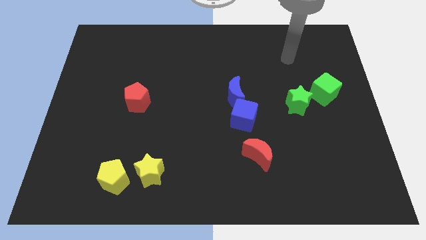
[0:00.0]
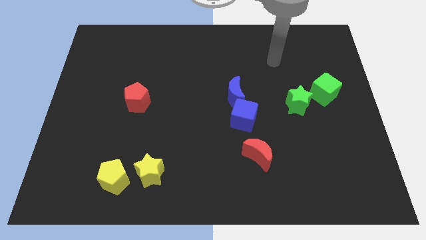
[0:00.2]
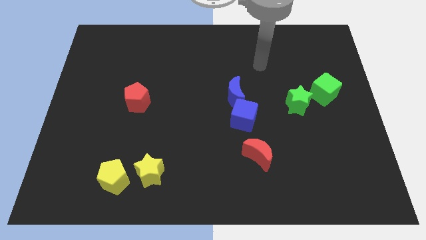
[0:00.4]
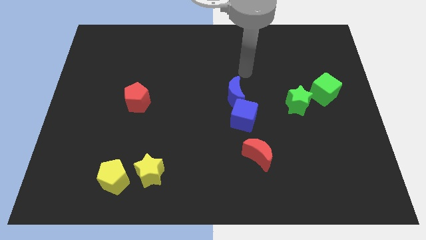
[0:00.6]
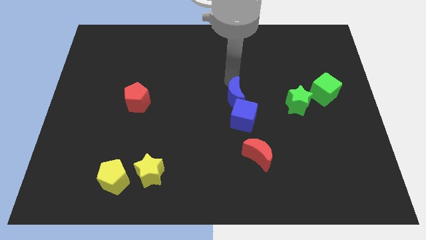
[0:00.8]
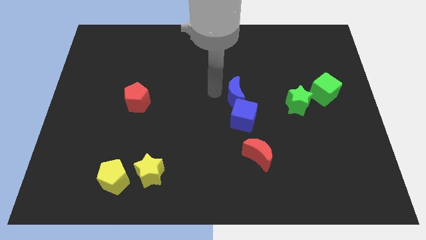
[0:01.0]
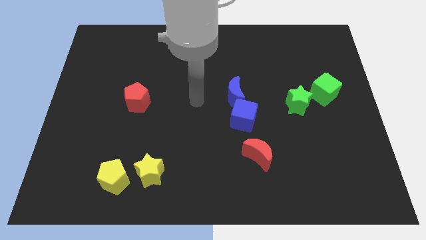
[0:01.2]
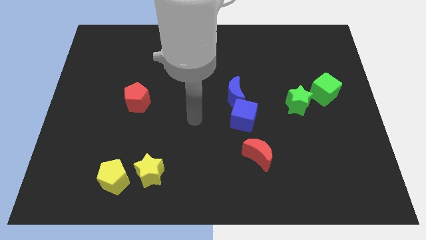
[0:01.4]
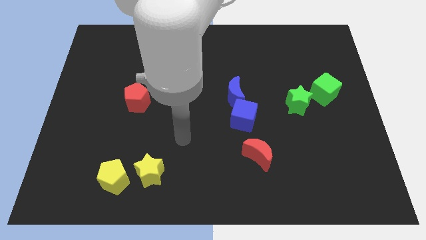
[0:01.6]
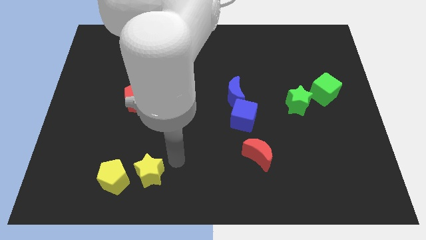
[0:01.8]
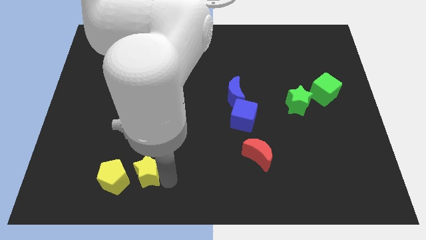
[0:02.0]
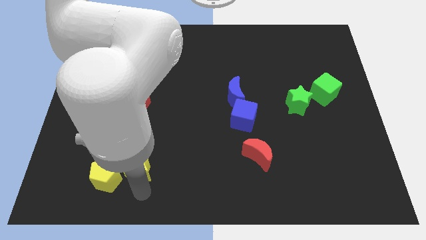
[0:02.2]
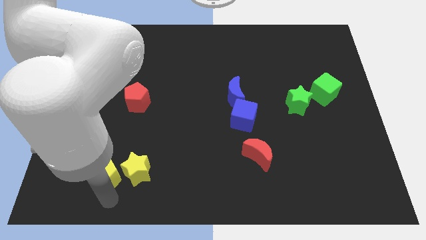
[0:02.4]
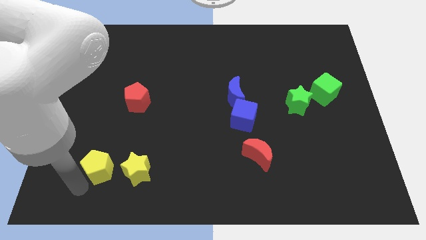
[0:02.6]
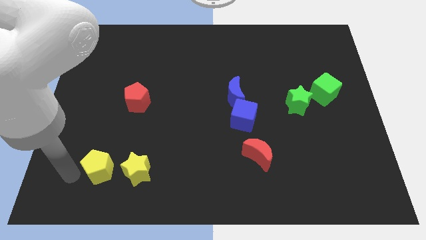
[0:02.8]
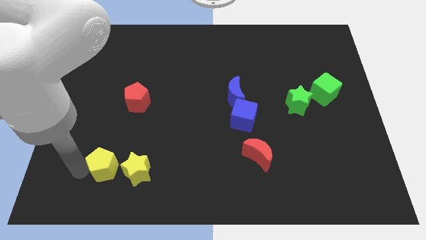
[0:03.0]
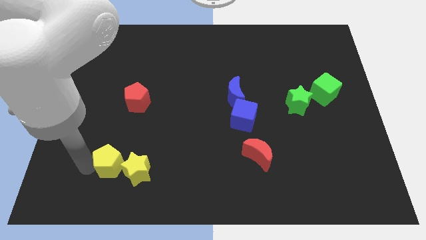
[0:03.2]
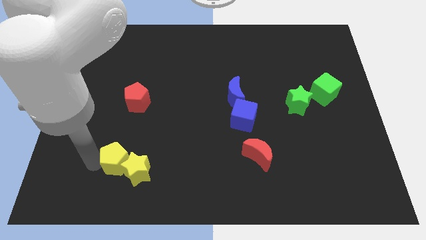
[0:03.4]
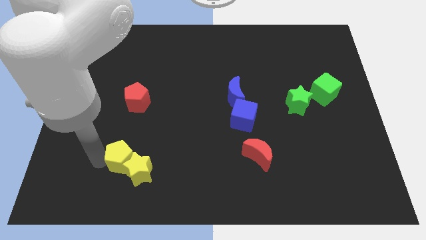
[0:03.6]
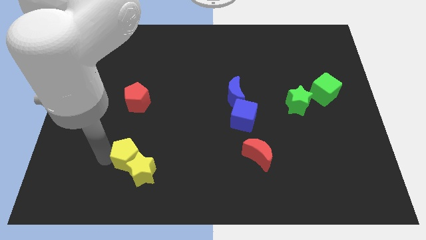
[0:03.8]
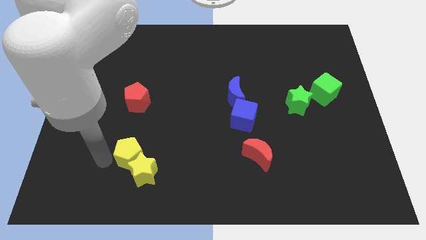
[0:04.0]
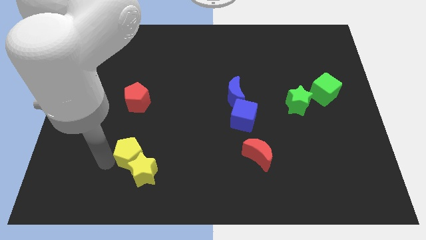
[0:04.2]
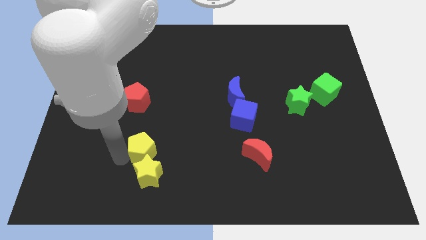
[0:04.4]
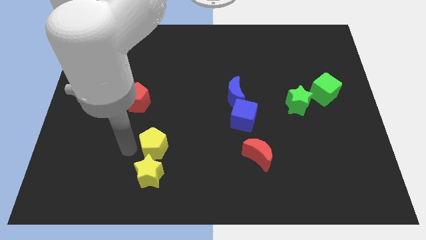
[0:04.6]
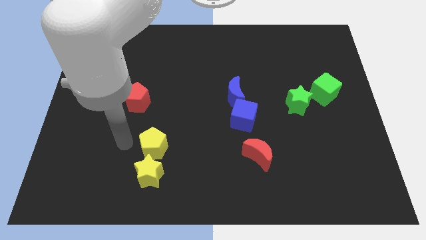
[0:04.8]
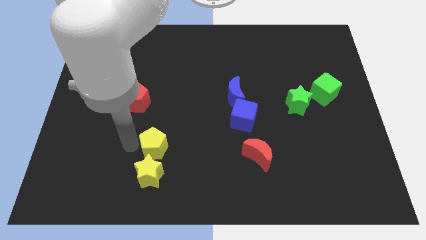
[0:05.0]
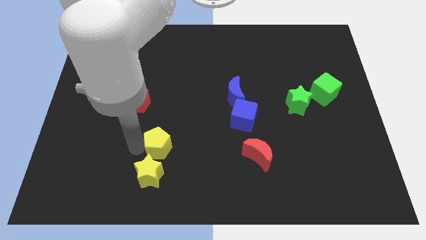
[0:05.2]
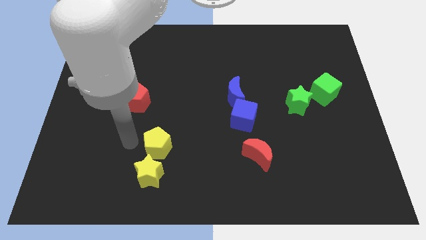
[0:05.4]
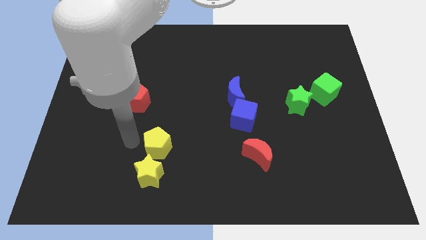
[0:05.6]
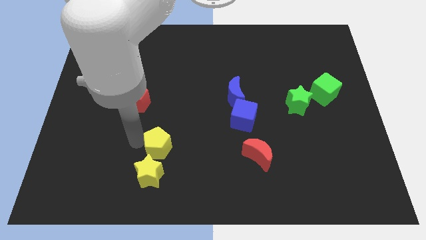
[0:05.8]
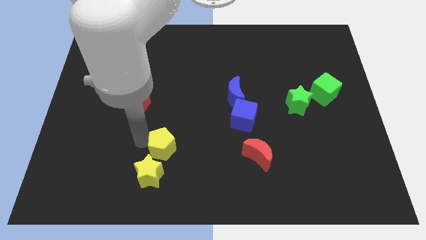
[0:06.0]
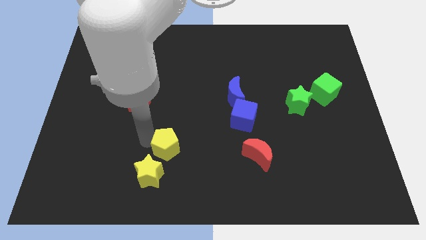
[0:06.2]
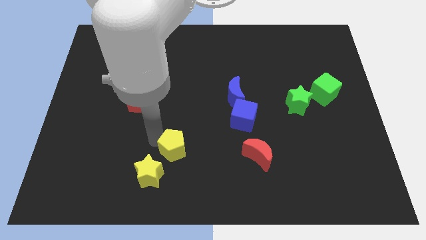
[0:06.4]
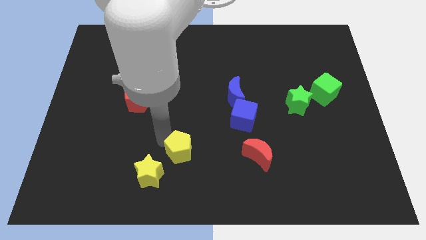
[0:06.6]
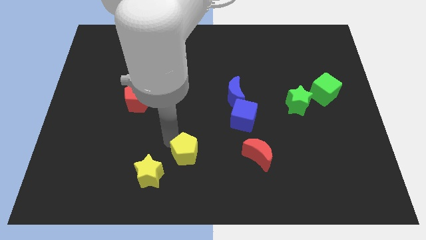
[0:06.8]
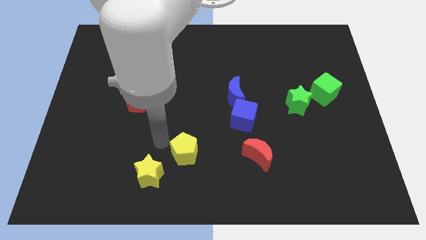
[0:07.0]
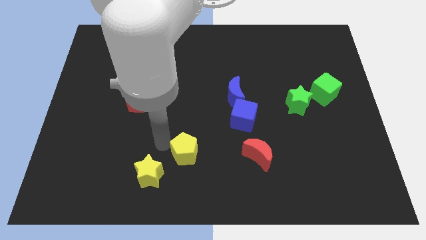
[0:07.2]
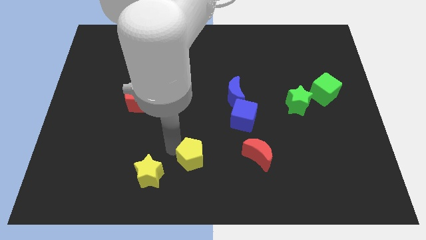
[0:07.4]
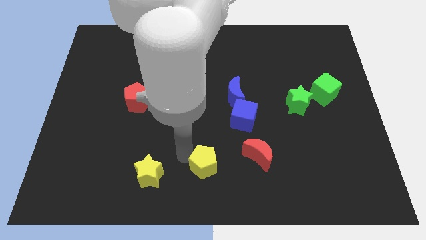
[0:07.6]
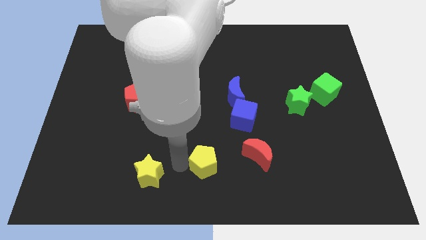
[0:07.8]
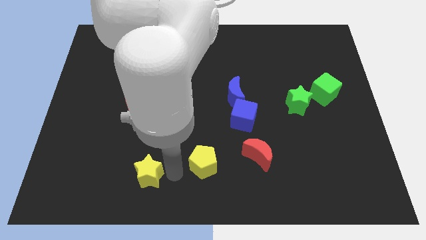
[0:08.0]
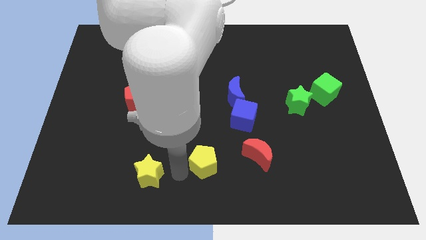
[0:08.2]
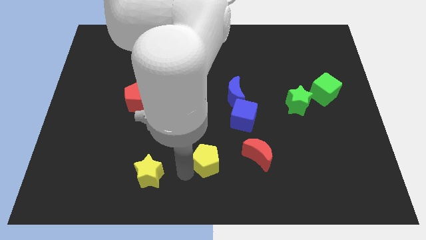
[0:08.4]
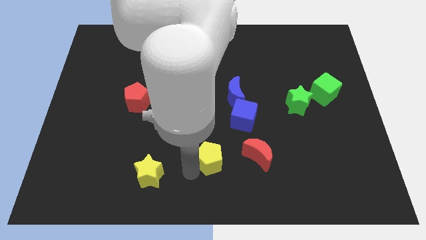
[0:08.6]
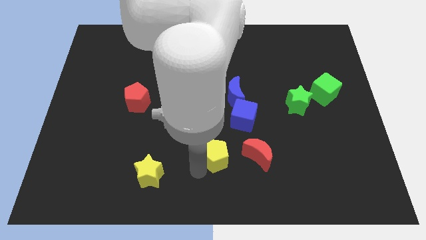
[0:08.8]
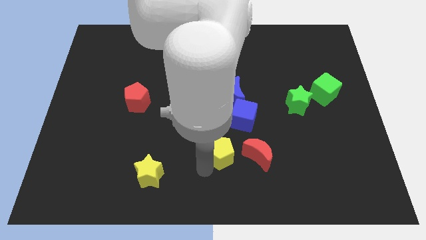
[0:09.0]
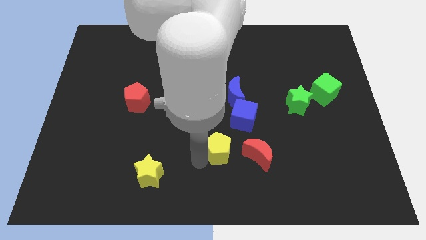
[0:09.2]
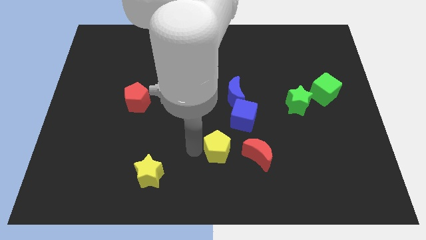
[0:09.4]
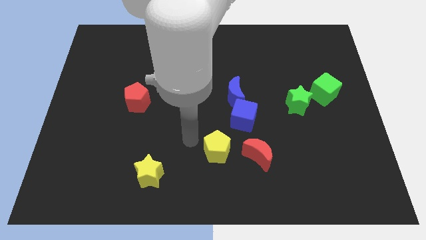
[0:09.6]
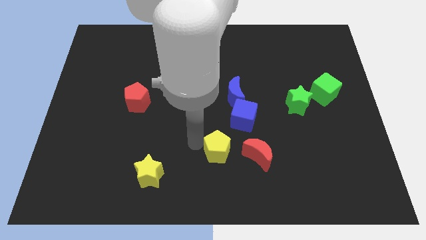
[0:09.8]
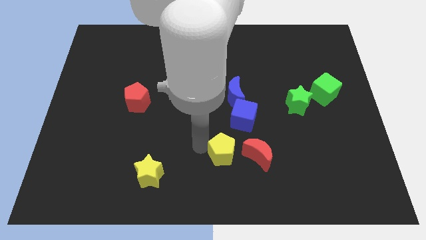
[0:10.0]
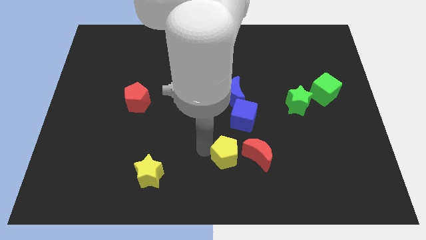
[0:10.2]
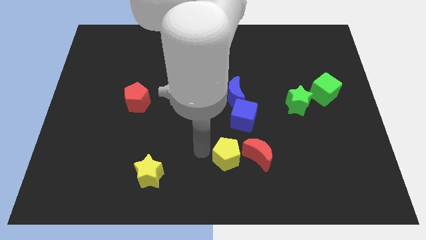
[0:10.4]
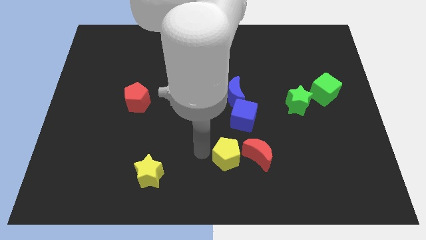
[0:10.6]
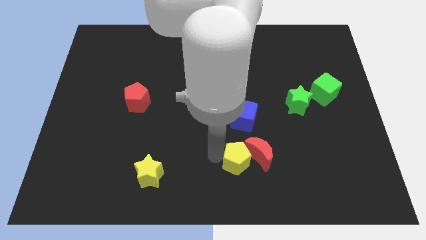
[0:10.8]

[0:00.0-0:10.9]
push the yellow pentagon towards the red moon

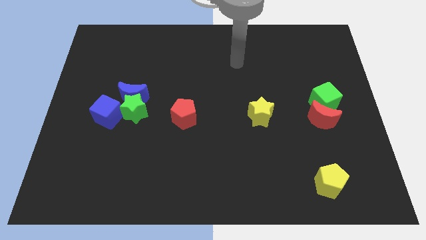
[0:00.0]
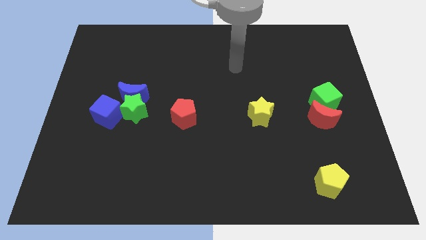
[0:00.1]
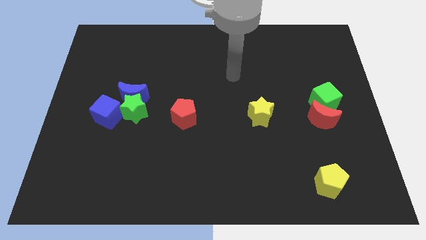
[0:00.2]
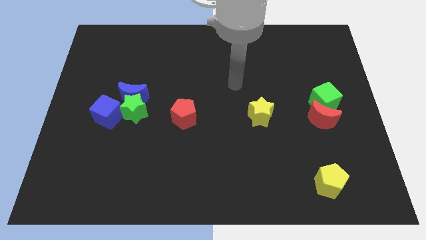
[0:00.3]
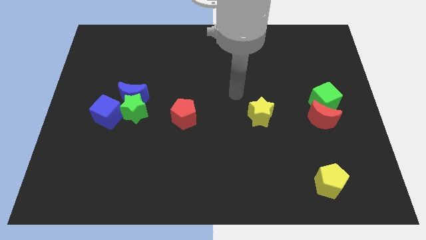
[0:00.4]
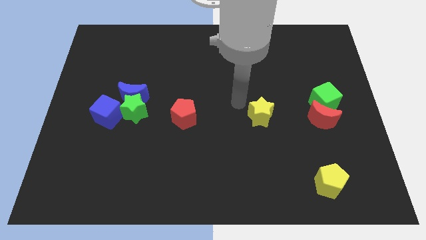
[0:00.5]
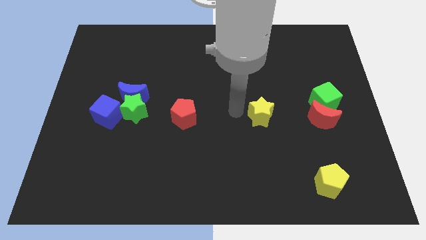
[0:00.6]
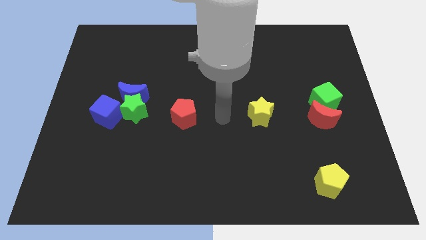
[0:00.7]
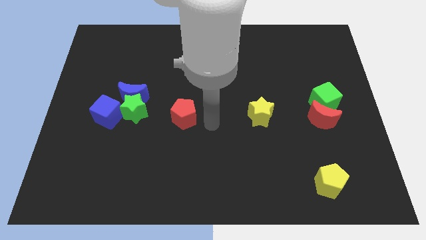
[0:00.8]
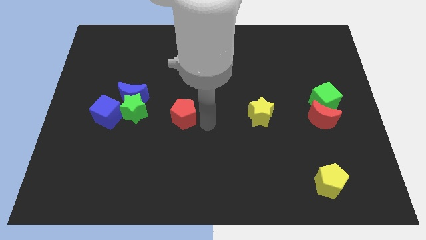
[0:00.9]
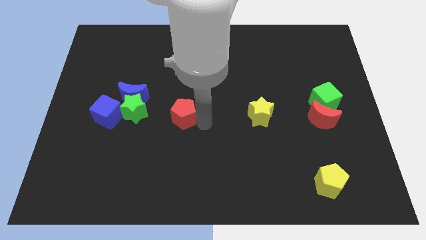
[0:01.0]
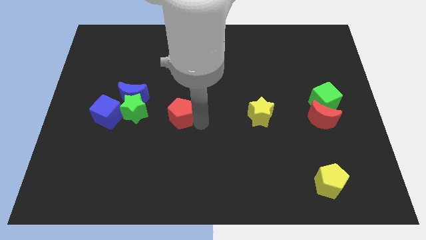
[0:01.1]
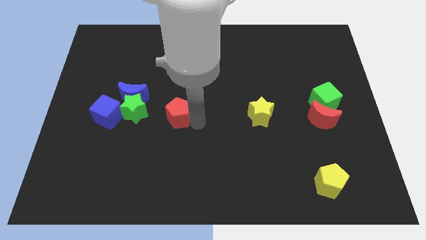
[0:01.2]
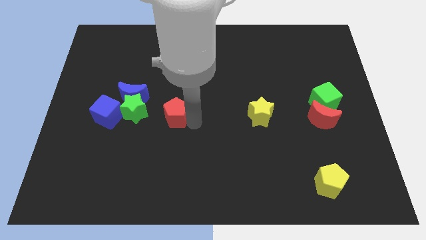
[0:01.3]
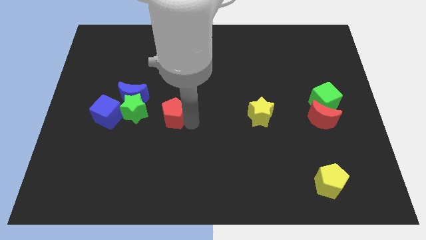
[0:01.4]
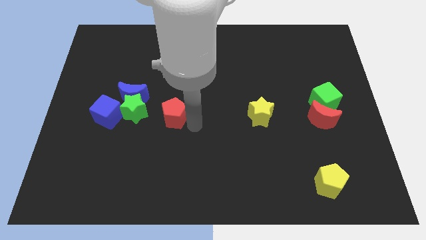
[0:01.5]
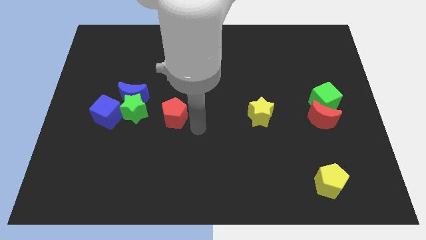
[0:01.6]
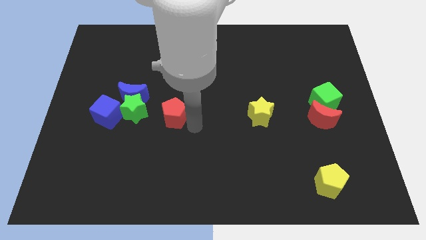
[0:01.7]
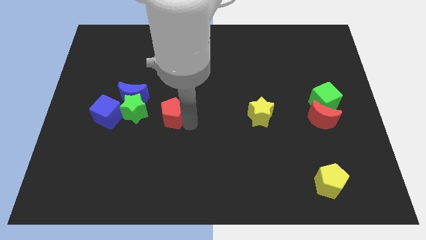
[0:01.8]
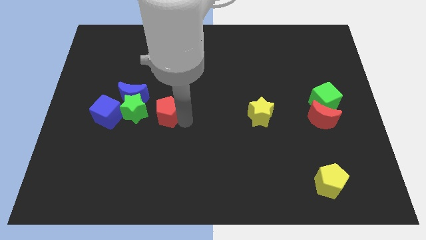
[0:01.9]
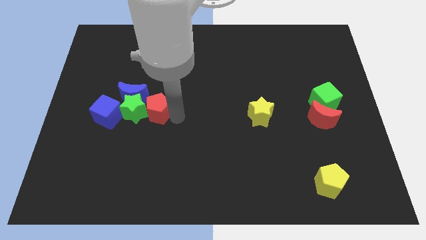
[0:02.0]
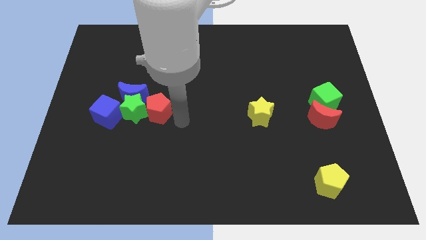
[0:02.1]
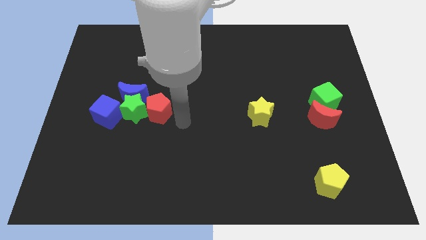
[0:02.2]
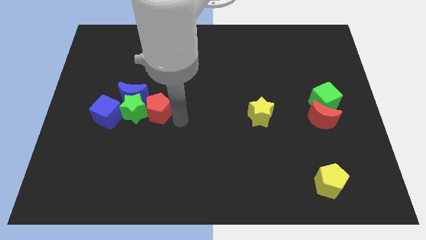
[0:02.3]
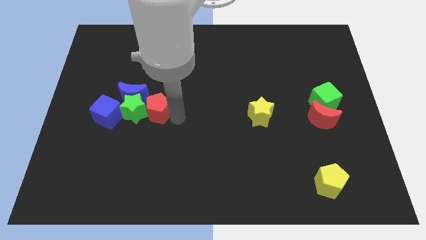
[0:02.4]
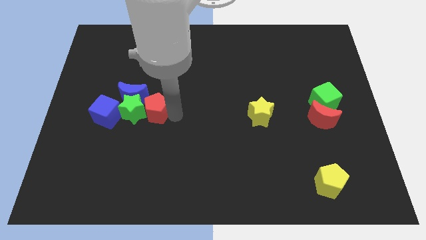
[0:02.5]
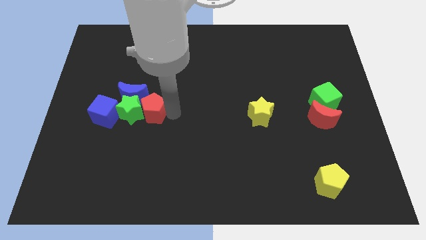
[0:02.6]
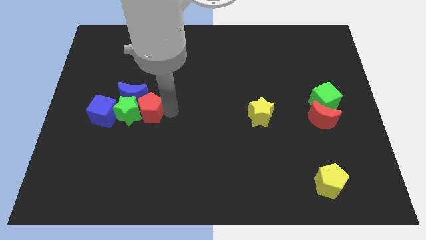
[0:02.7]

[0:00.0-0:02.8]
push the red pentagon close to the blue moon
